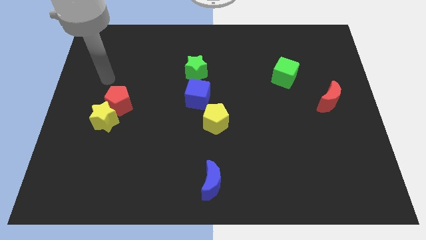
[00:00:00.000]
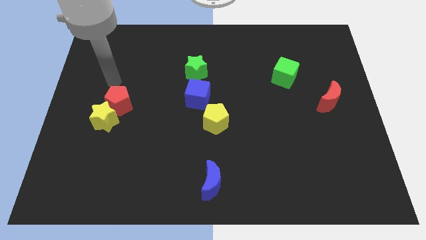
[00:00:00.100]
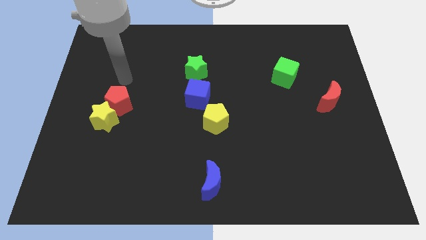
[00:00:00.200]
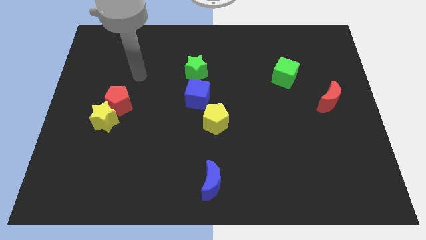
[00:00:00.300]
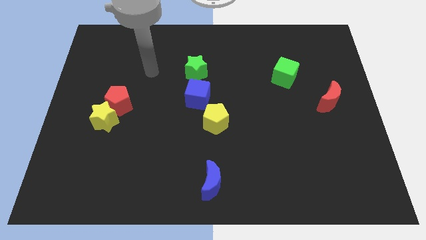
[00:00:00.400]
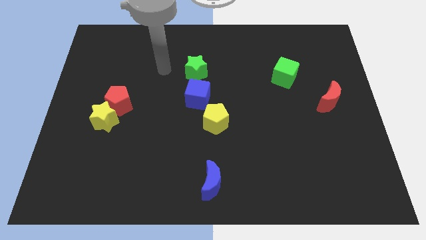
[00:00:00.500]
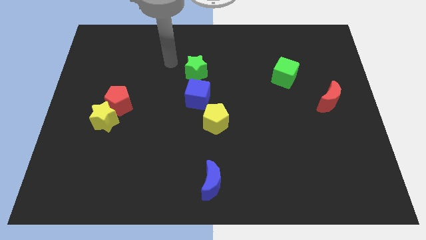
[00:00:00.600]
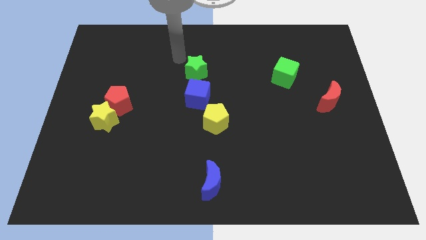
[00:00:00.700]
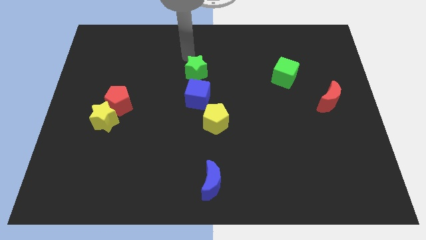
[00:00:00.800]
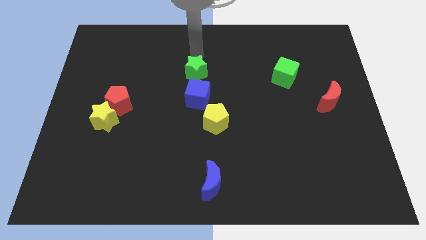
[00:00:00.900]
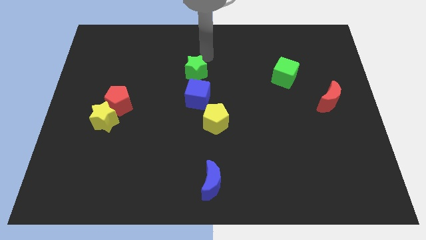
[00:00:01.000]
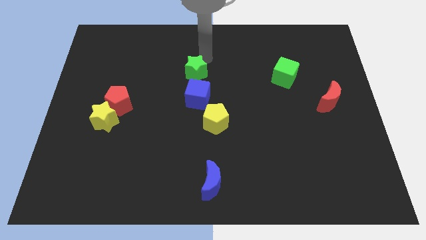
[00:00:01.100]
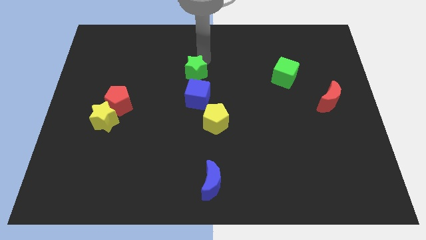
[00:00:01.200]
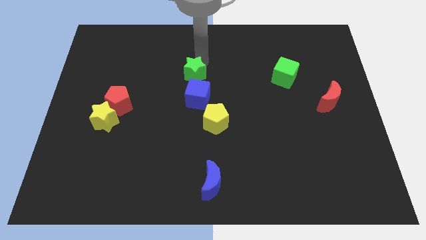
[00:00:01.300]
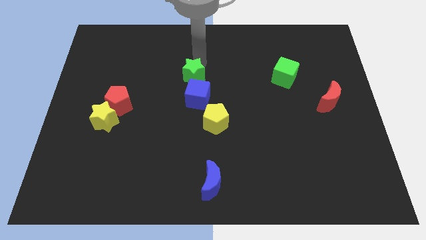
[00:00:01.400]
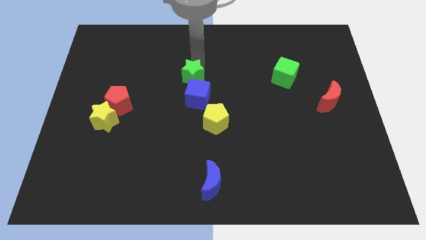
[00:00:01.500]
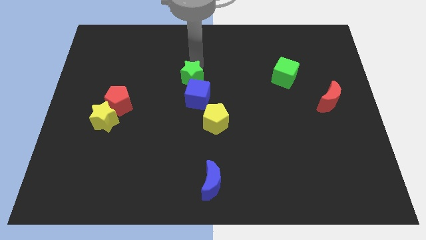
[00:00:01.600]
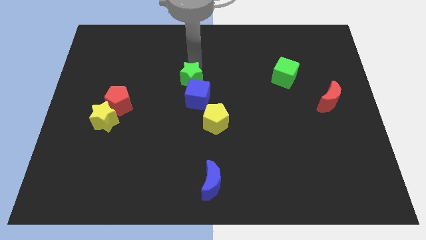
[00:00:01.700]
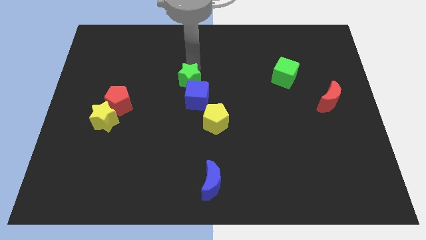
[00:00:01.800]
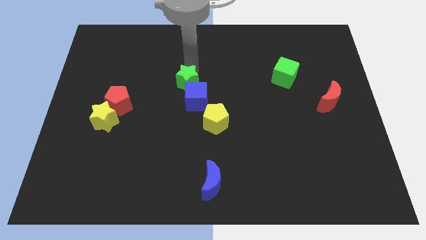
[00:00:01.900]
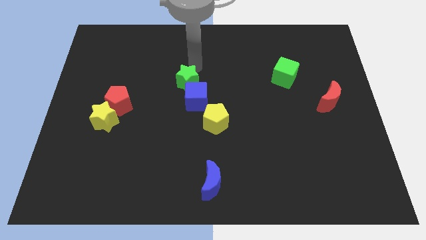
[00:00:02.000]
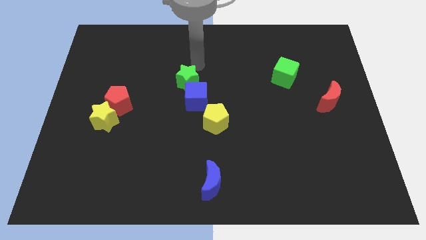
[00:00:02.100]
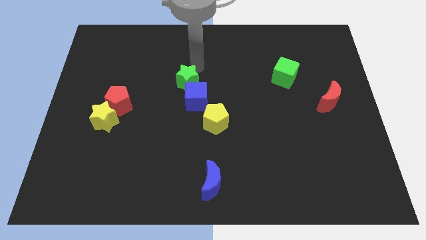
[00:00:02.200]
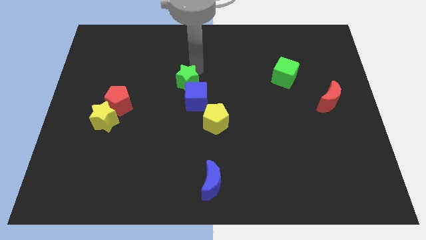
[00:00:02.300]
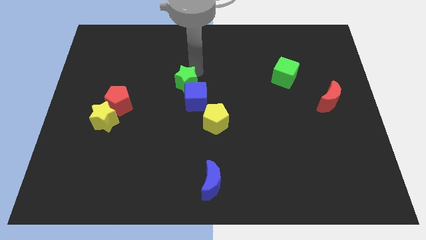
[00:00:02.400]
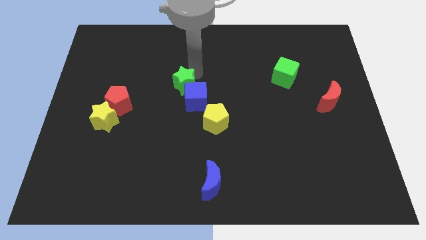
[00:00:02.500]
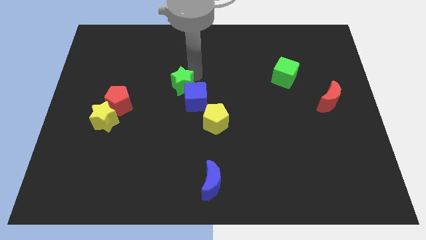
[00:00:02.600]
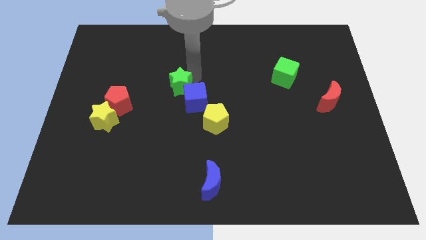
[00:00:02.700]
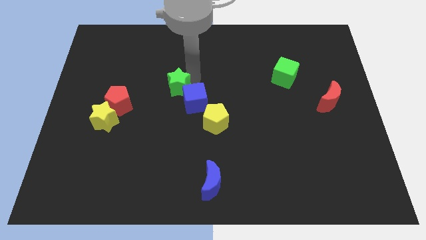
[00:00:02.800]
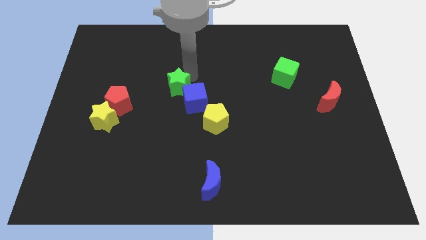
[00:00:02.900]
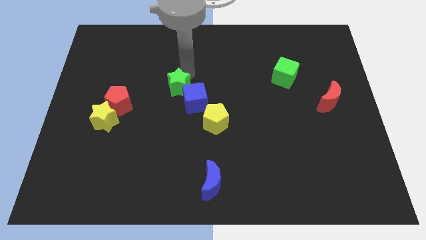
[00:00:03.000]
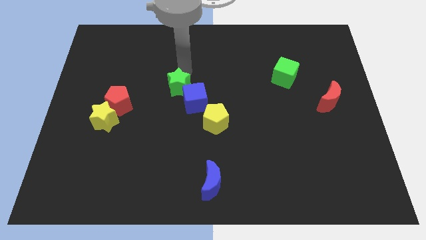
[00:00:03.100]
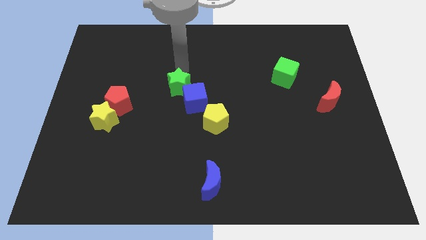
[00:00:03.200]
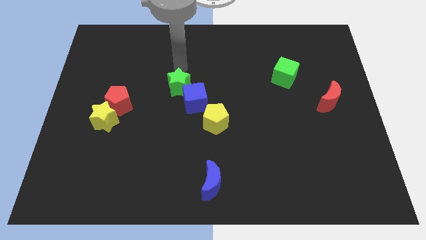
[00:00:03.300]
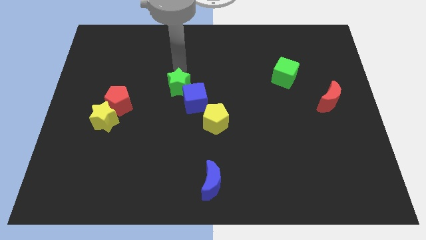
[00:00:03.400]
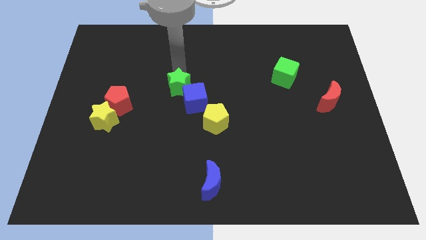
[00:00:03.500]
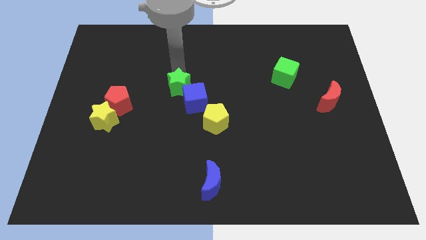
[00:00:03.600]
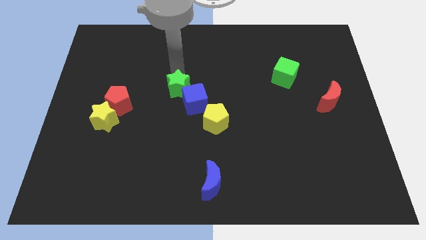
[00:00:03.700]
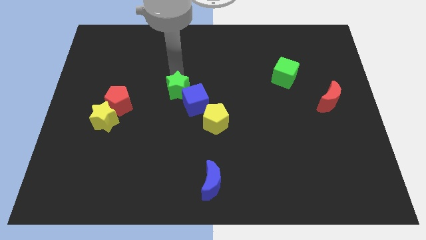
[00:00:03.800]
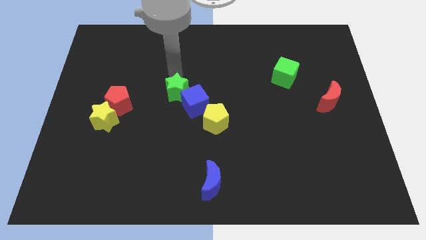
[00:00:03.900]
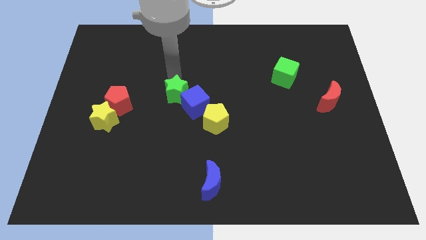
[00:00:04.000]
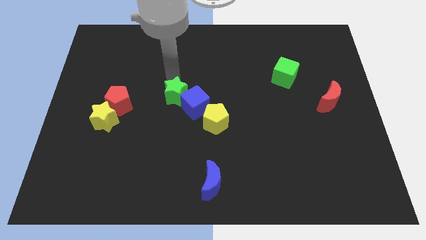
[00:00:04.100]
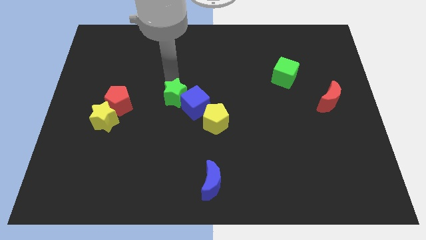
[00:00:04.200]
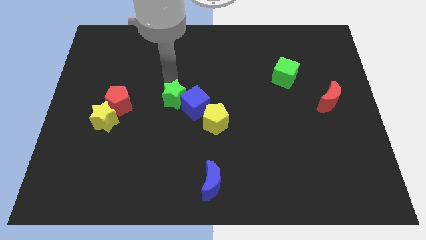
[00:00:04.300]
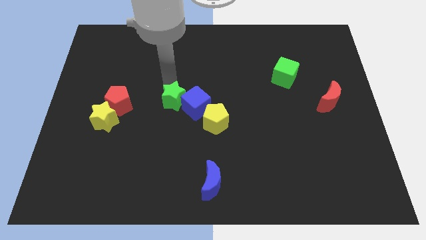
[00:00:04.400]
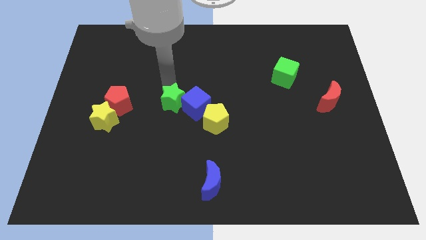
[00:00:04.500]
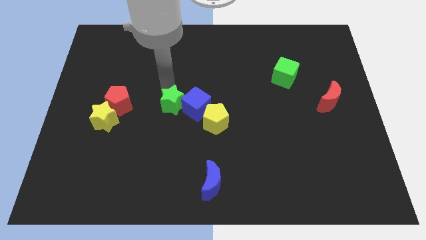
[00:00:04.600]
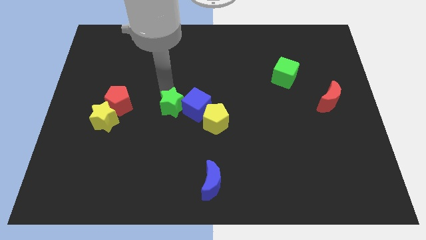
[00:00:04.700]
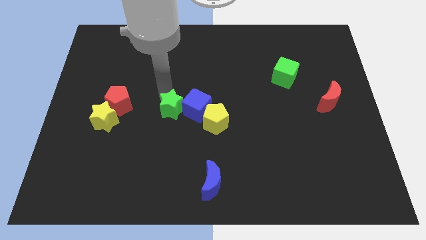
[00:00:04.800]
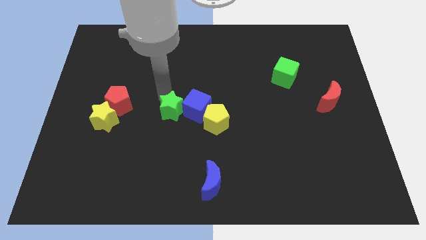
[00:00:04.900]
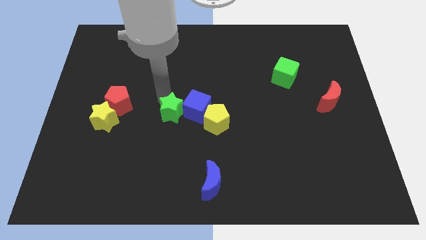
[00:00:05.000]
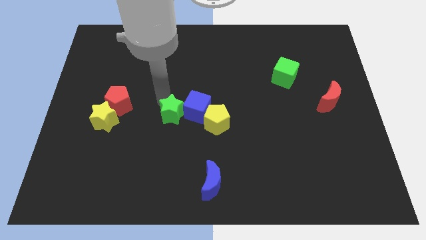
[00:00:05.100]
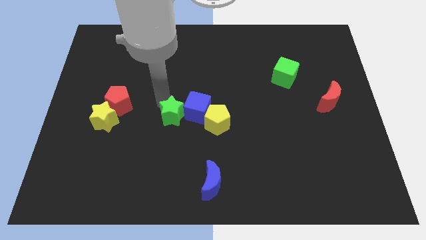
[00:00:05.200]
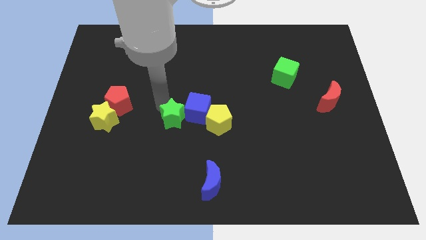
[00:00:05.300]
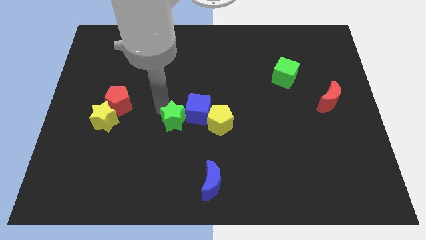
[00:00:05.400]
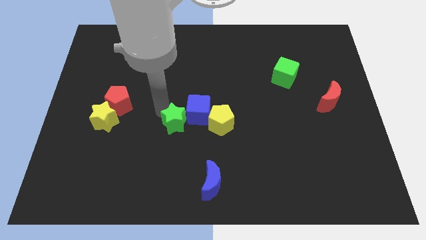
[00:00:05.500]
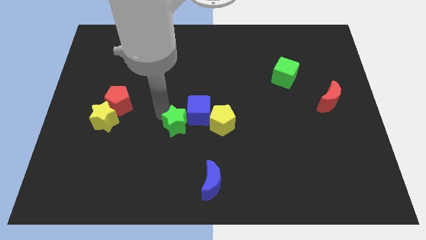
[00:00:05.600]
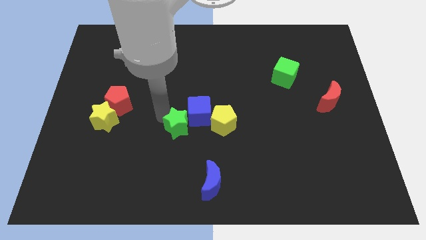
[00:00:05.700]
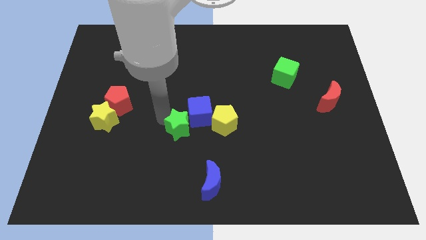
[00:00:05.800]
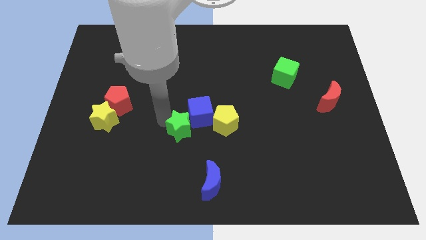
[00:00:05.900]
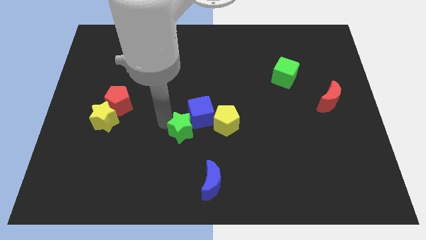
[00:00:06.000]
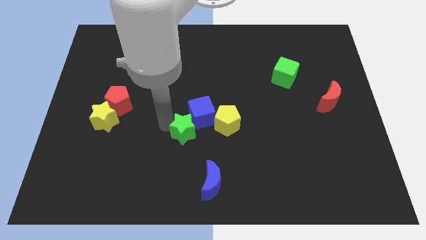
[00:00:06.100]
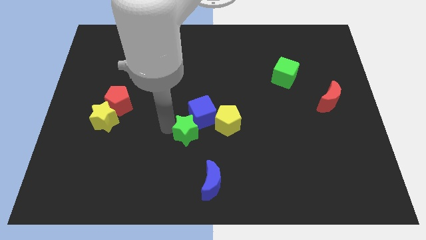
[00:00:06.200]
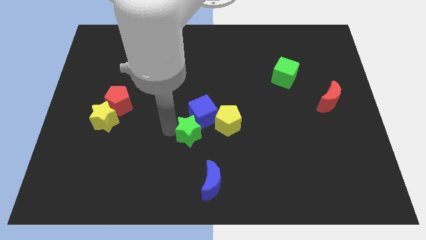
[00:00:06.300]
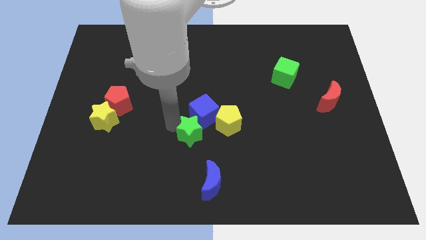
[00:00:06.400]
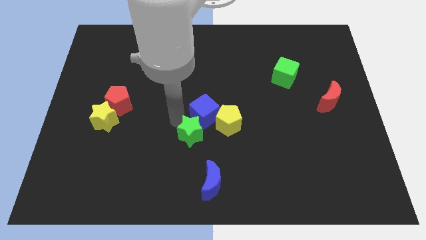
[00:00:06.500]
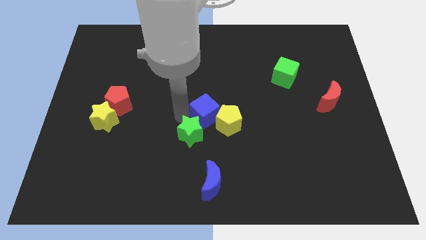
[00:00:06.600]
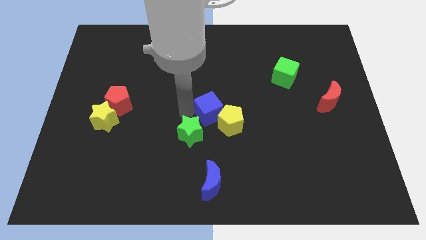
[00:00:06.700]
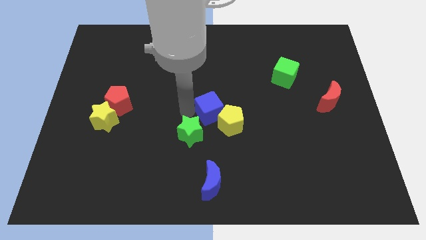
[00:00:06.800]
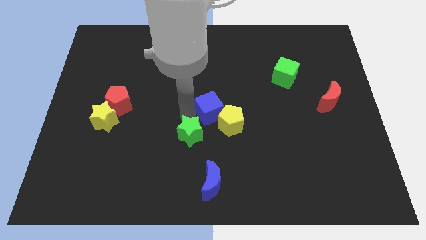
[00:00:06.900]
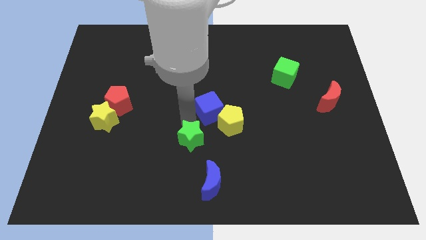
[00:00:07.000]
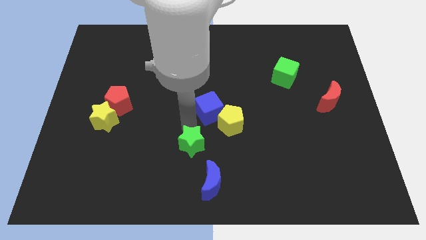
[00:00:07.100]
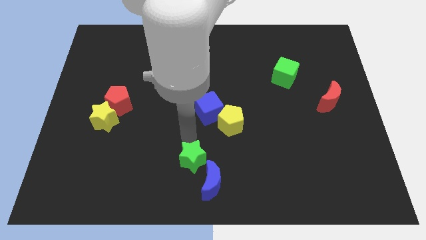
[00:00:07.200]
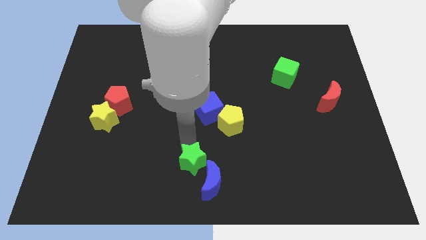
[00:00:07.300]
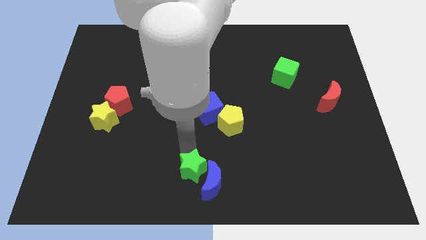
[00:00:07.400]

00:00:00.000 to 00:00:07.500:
put the green star close to the blue moon
